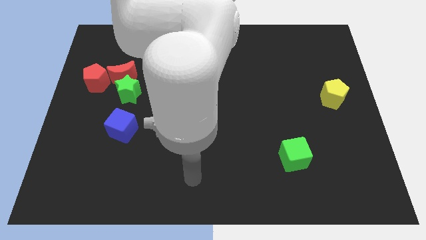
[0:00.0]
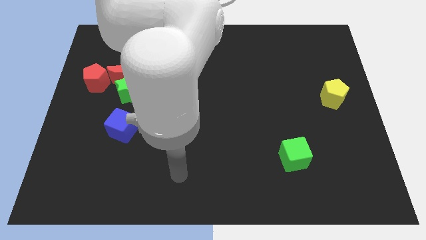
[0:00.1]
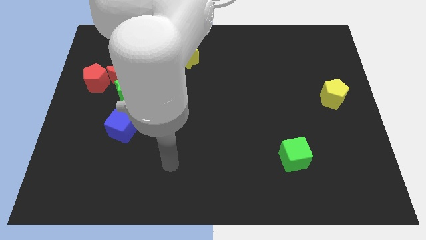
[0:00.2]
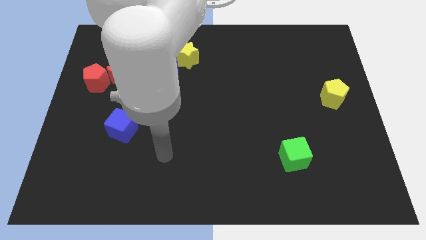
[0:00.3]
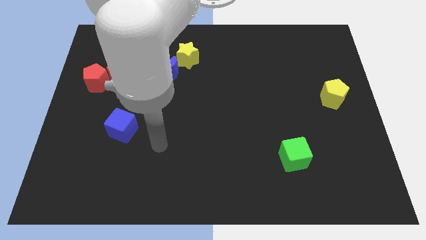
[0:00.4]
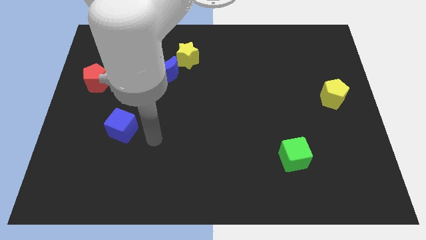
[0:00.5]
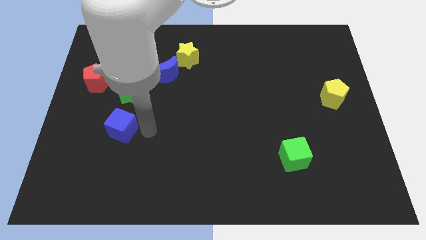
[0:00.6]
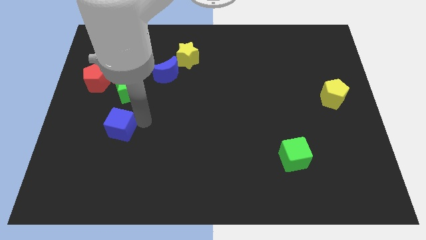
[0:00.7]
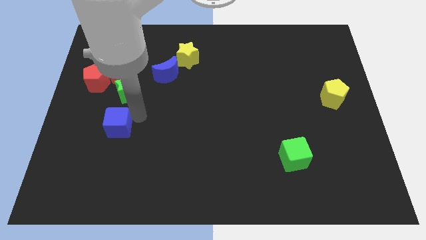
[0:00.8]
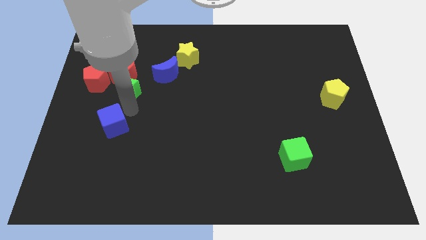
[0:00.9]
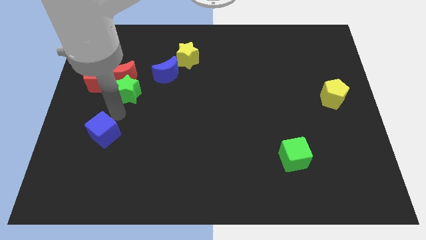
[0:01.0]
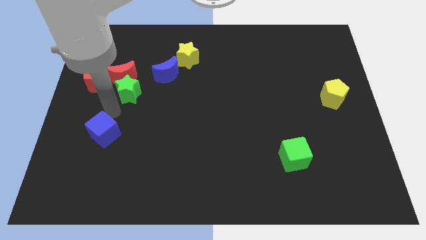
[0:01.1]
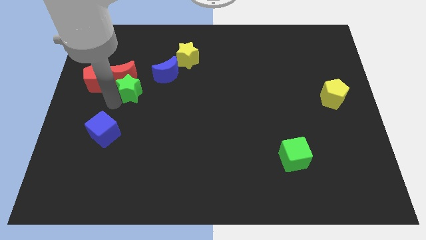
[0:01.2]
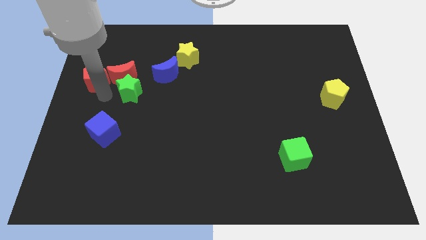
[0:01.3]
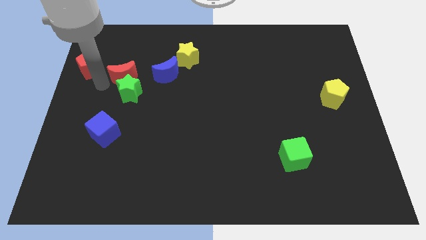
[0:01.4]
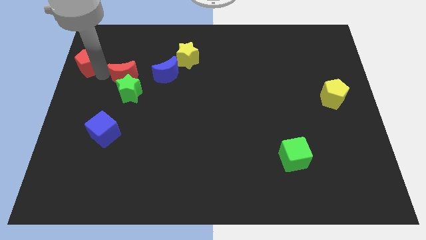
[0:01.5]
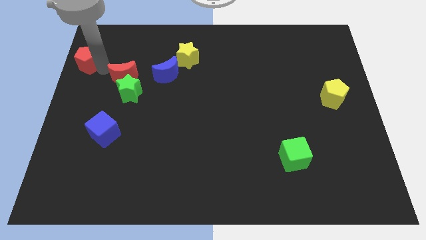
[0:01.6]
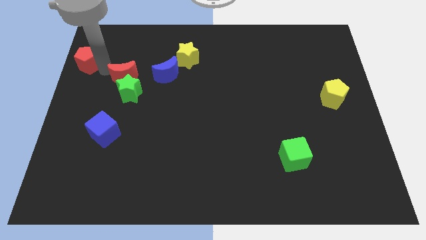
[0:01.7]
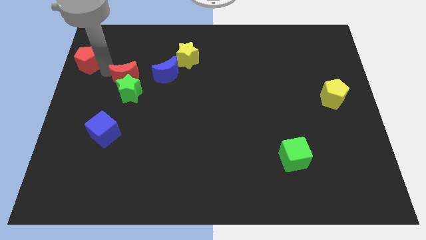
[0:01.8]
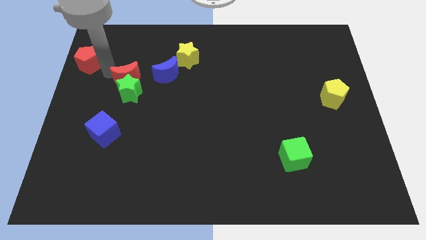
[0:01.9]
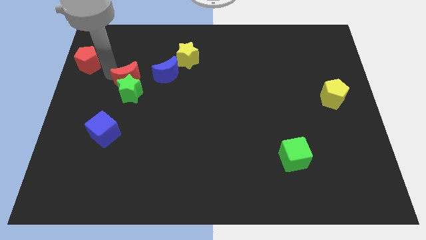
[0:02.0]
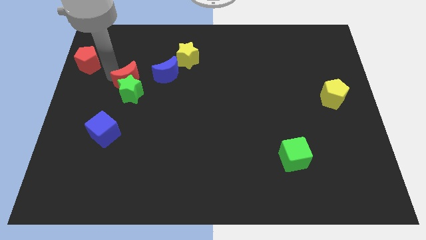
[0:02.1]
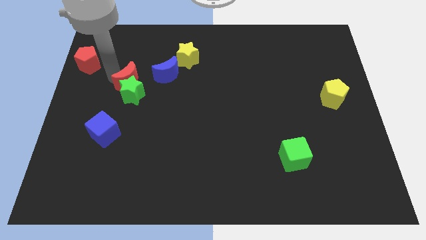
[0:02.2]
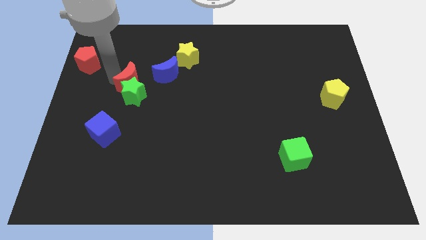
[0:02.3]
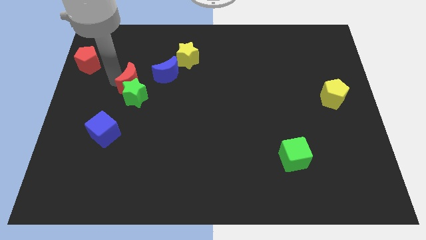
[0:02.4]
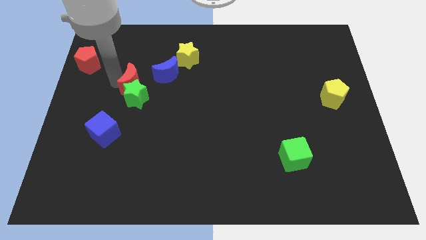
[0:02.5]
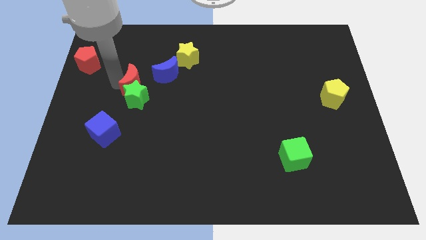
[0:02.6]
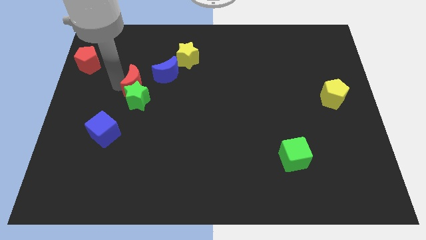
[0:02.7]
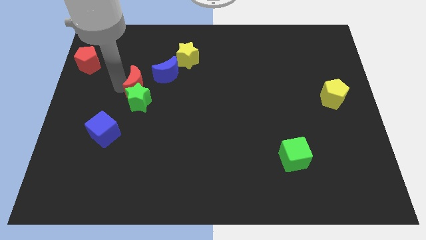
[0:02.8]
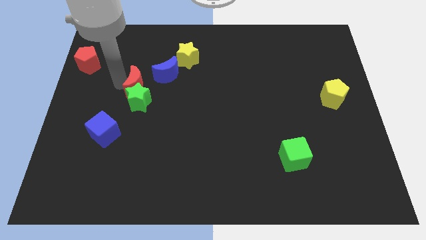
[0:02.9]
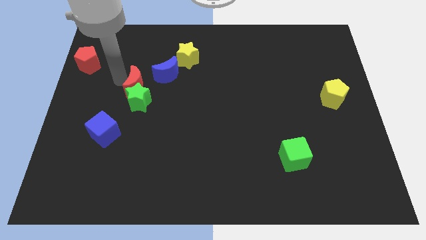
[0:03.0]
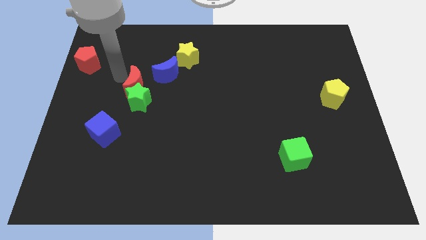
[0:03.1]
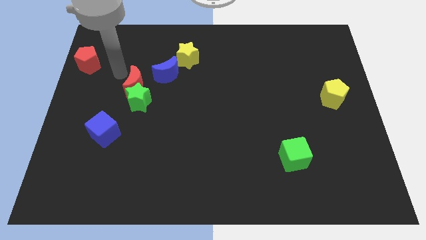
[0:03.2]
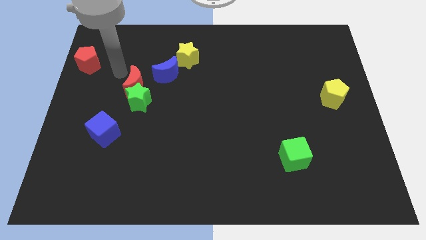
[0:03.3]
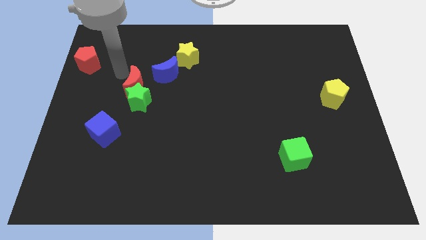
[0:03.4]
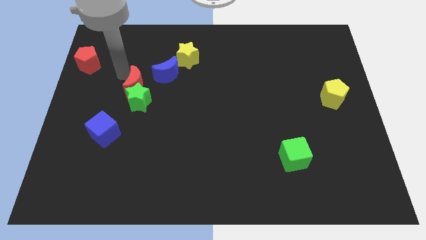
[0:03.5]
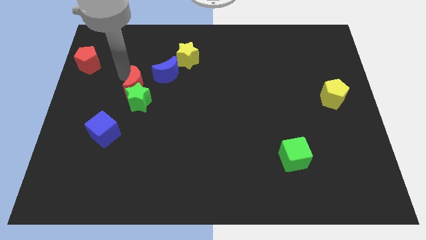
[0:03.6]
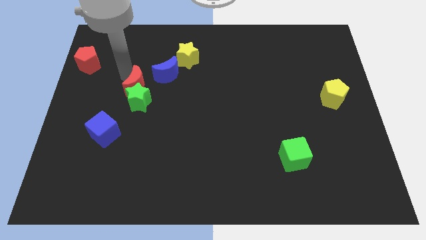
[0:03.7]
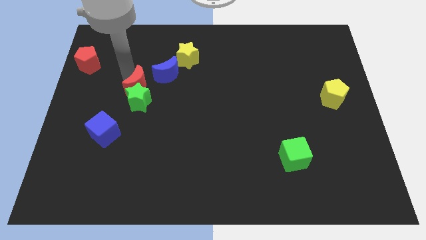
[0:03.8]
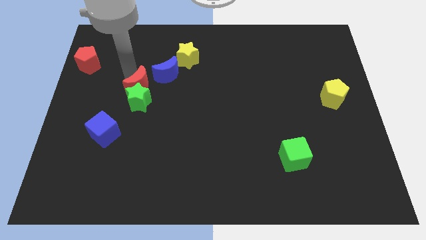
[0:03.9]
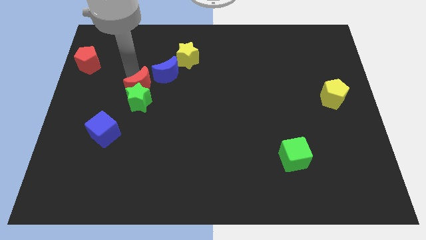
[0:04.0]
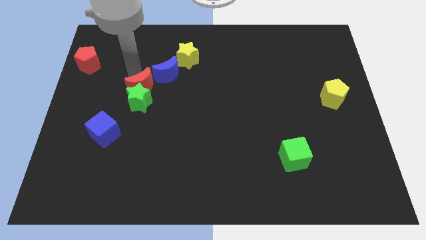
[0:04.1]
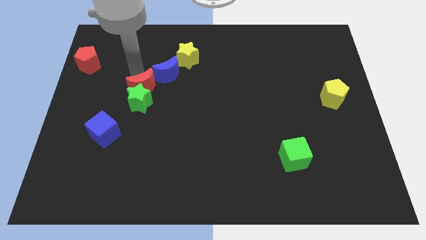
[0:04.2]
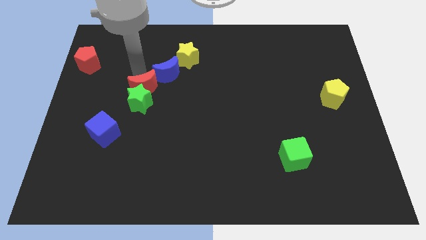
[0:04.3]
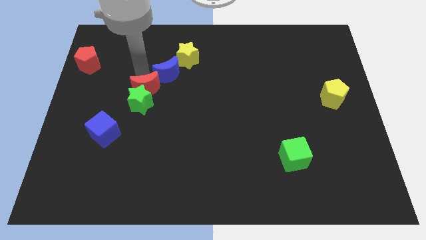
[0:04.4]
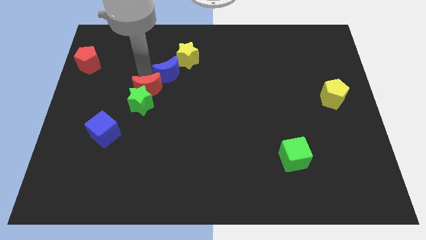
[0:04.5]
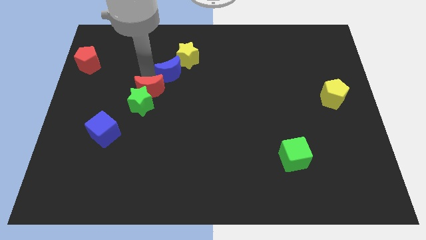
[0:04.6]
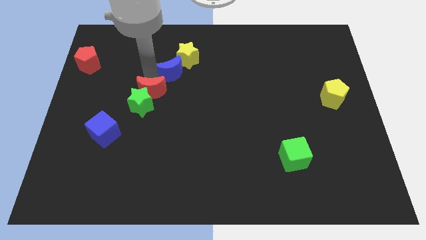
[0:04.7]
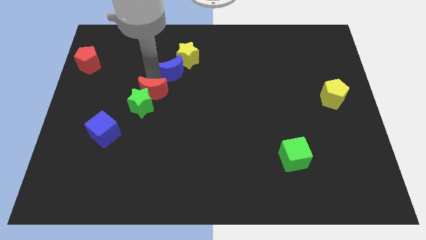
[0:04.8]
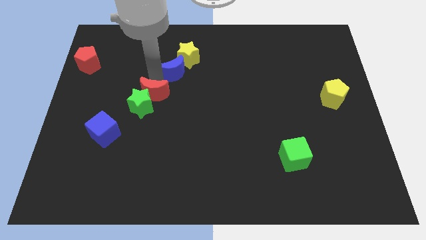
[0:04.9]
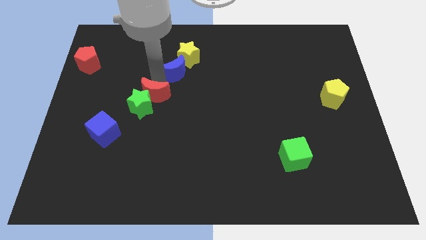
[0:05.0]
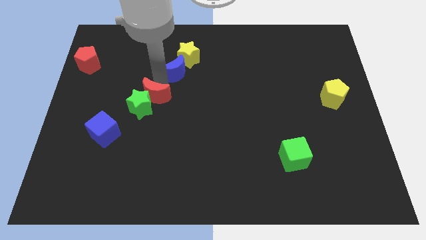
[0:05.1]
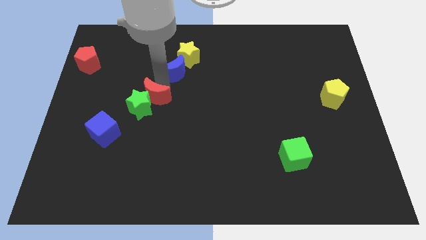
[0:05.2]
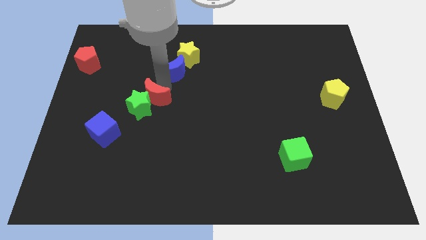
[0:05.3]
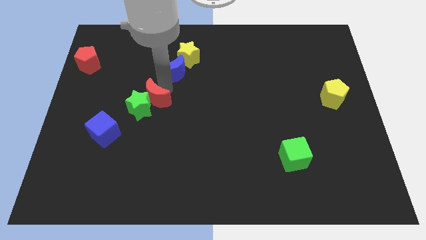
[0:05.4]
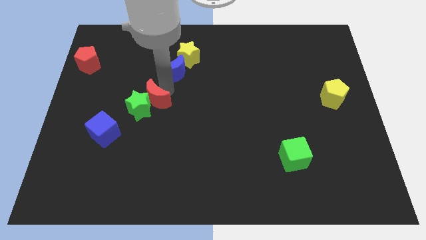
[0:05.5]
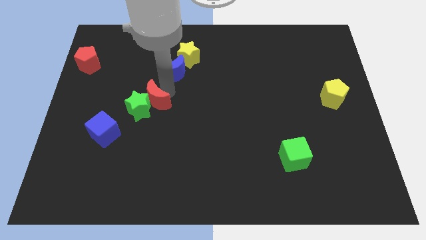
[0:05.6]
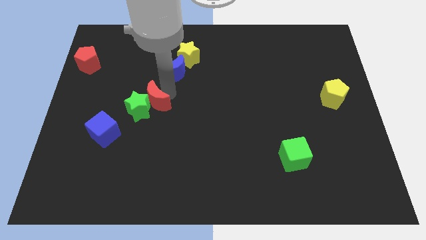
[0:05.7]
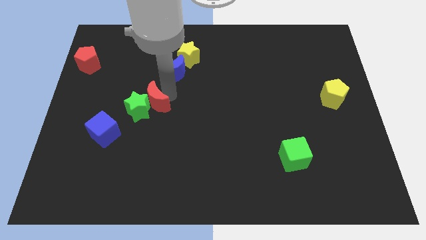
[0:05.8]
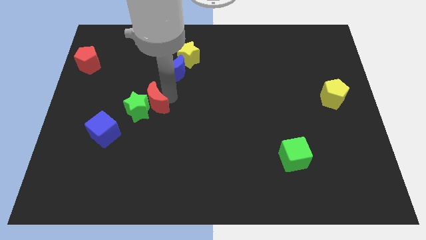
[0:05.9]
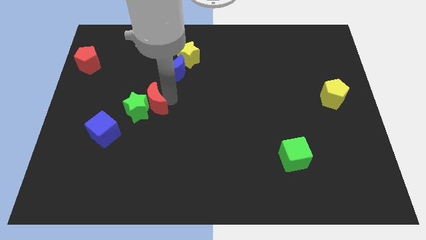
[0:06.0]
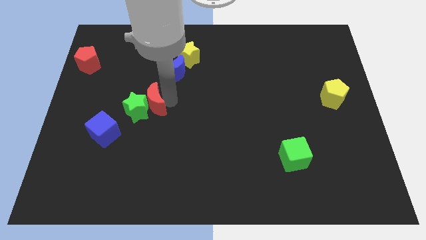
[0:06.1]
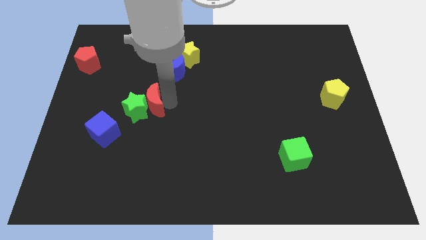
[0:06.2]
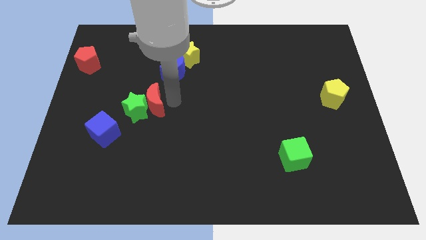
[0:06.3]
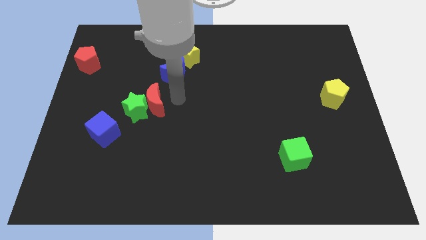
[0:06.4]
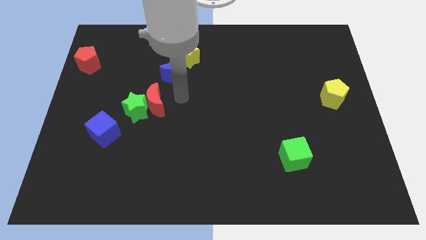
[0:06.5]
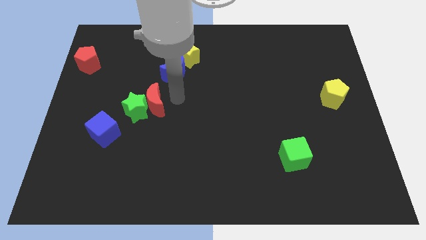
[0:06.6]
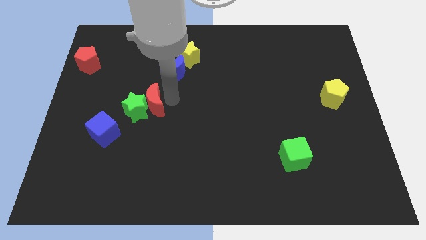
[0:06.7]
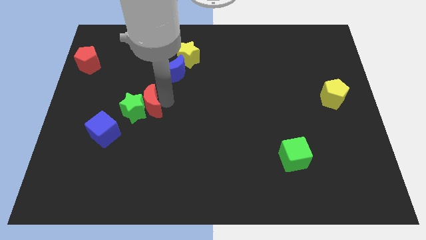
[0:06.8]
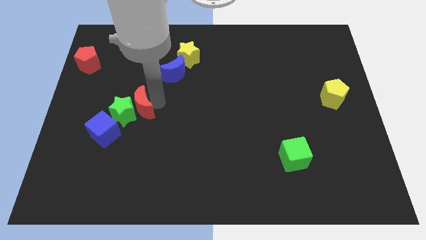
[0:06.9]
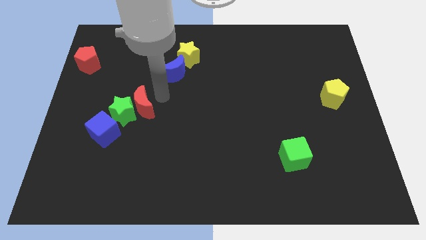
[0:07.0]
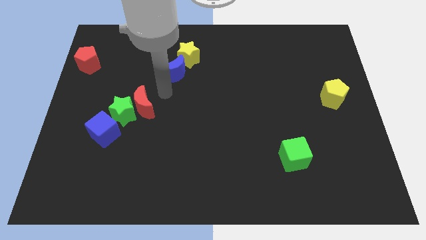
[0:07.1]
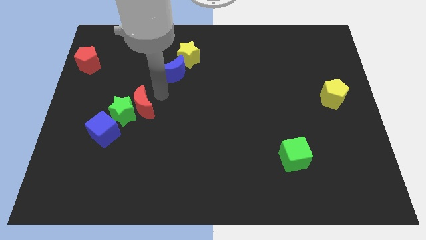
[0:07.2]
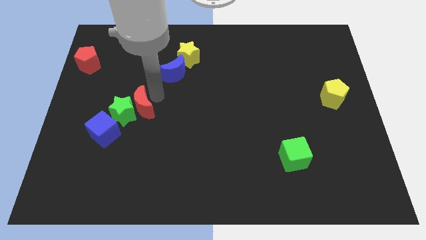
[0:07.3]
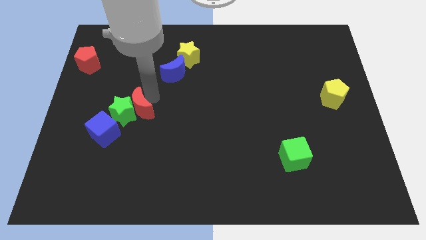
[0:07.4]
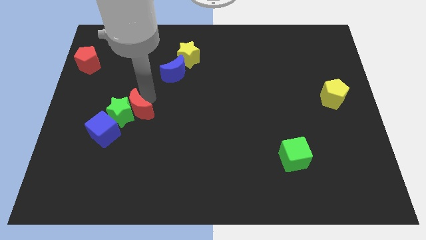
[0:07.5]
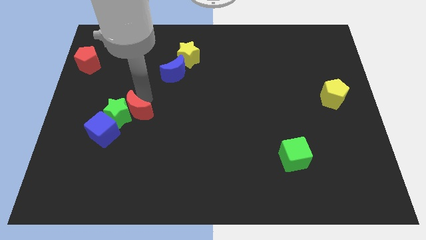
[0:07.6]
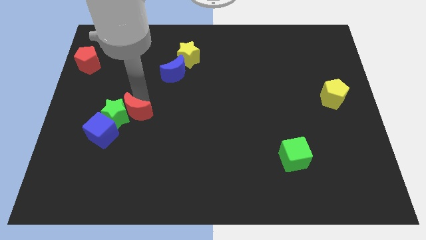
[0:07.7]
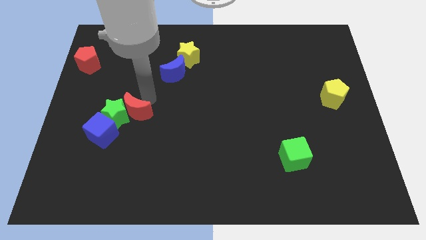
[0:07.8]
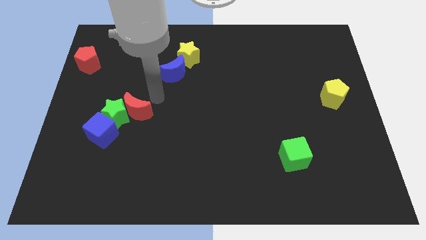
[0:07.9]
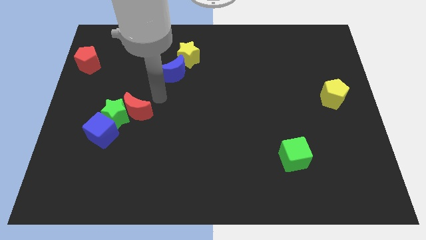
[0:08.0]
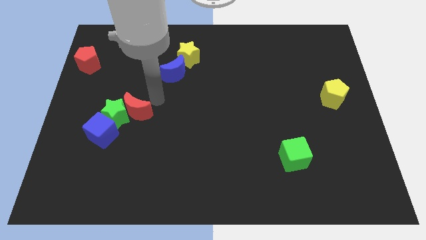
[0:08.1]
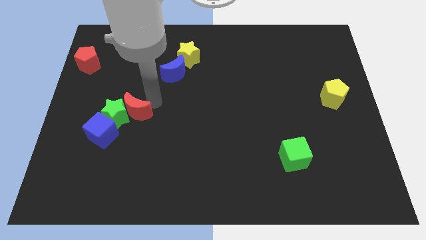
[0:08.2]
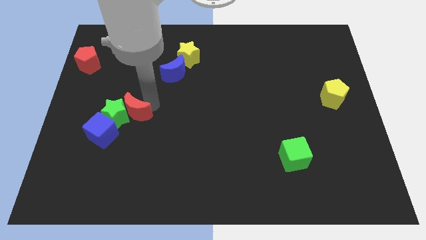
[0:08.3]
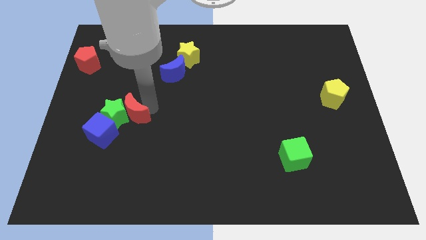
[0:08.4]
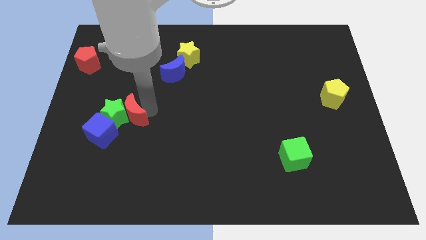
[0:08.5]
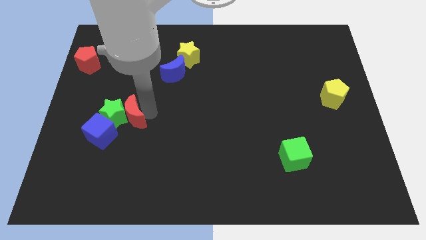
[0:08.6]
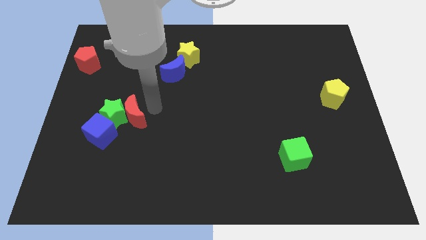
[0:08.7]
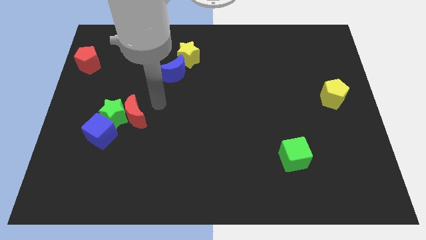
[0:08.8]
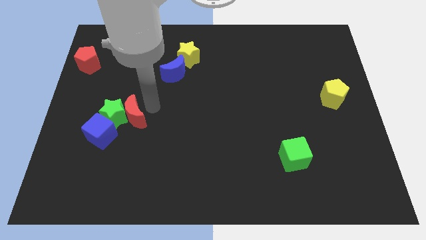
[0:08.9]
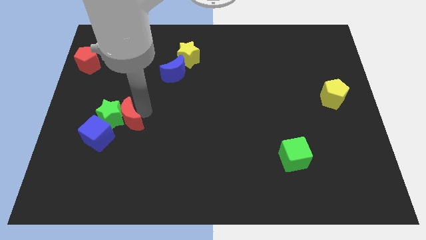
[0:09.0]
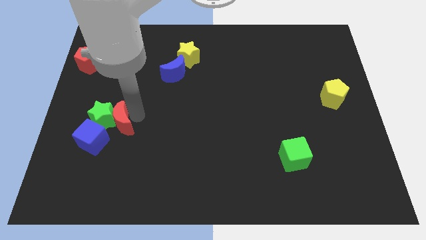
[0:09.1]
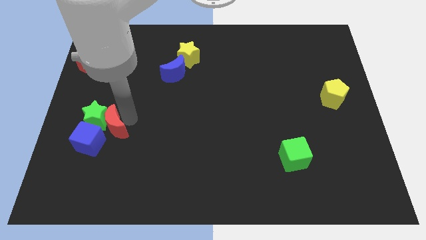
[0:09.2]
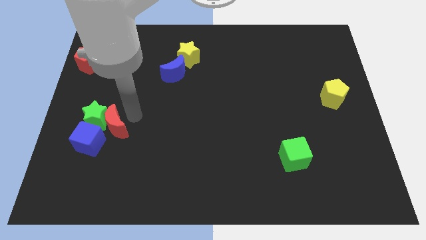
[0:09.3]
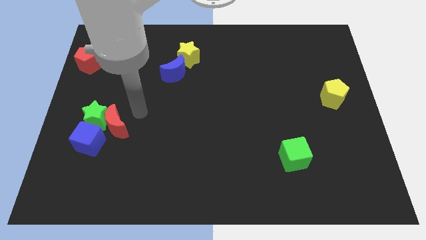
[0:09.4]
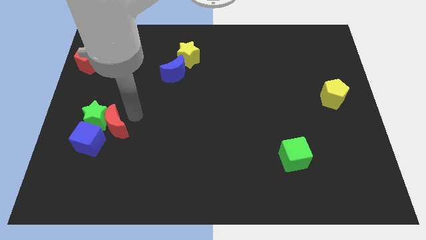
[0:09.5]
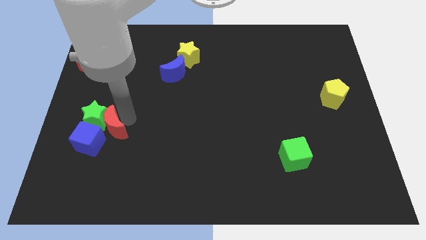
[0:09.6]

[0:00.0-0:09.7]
move the red moon towards the blue cube
